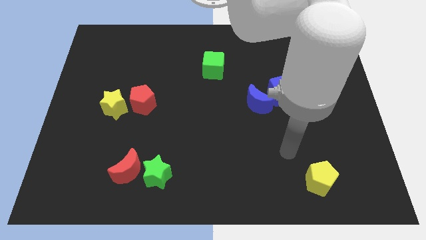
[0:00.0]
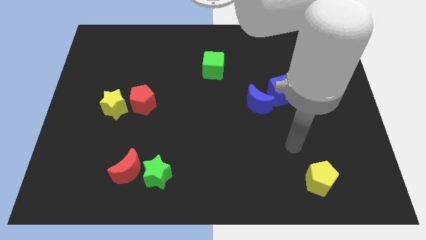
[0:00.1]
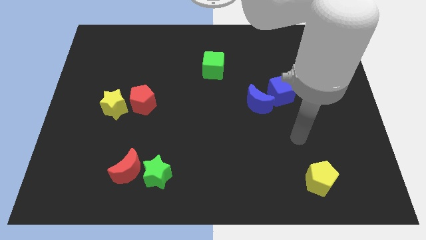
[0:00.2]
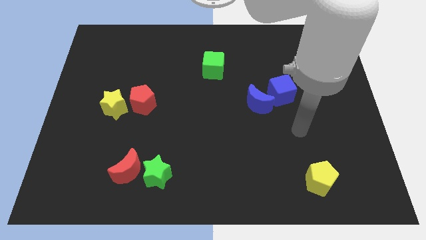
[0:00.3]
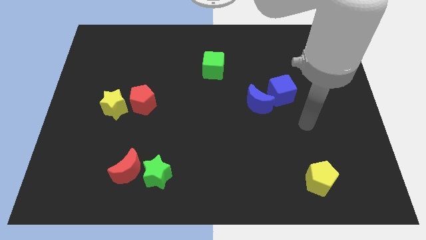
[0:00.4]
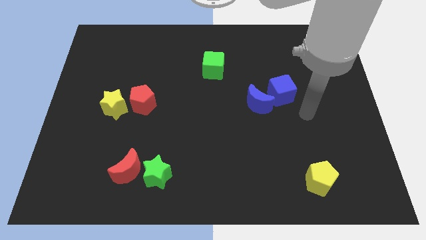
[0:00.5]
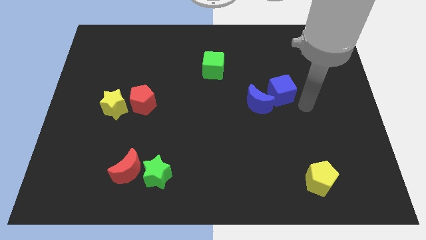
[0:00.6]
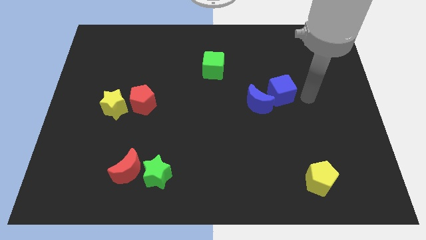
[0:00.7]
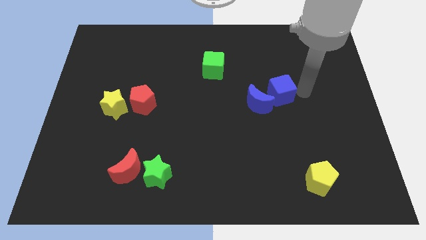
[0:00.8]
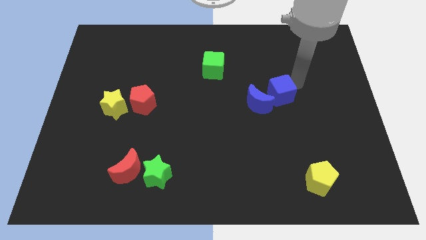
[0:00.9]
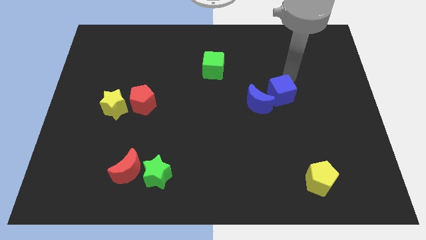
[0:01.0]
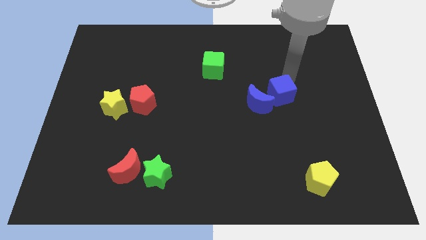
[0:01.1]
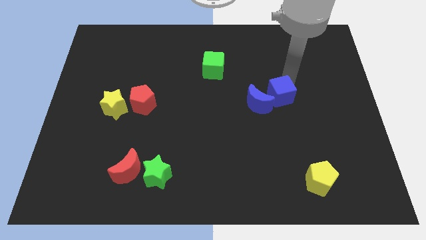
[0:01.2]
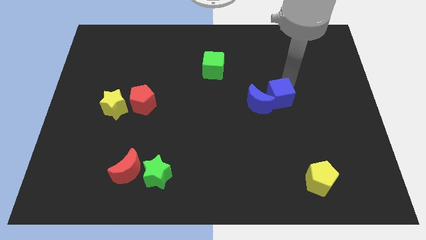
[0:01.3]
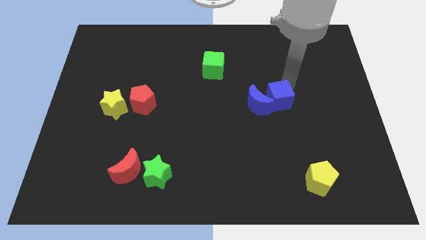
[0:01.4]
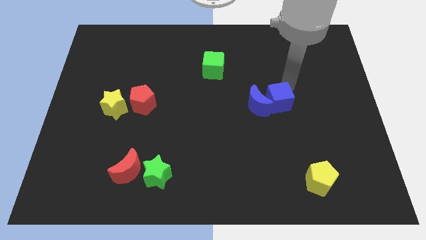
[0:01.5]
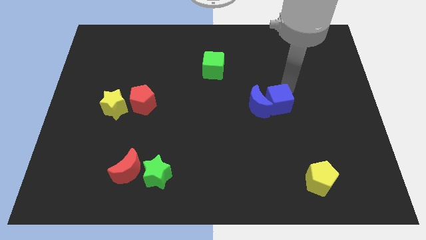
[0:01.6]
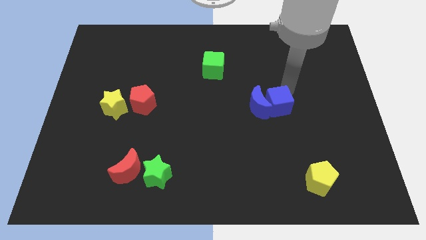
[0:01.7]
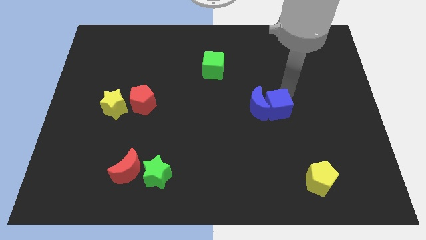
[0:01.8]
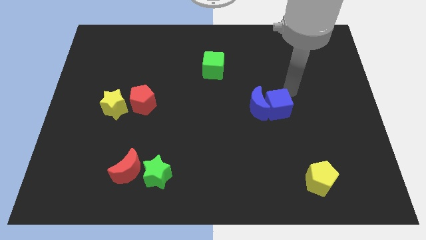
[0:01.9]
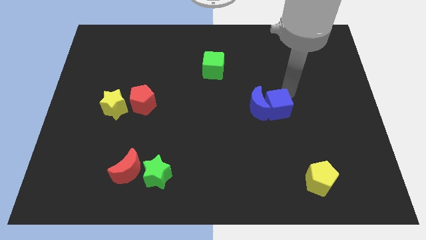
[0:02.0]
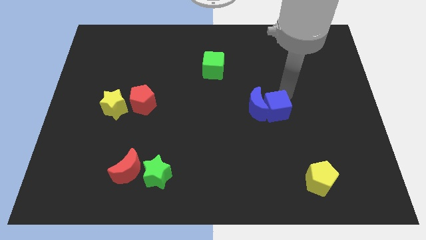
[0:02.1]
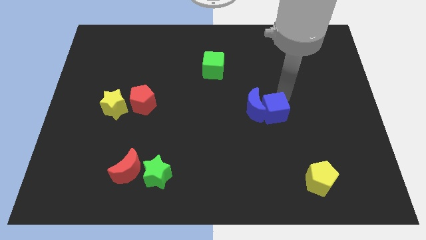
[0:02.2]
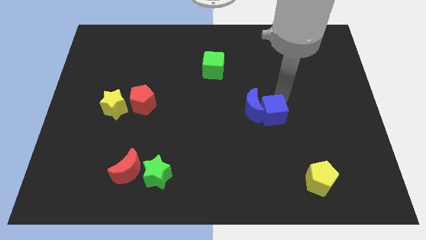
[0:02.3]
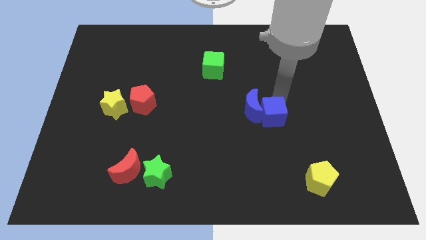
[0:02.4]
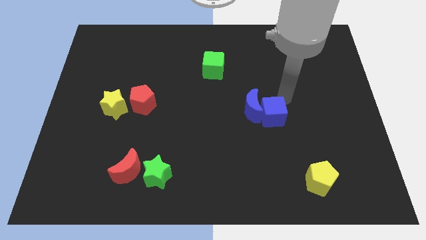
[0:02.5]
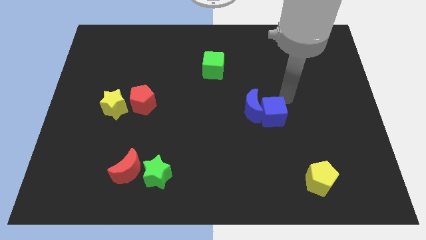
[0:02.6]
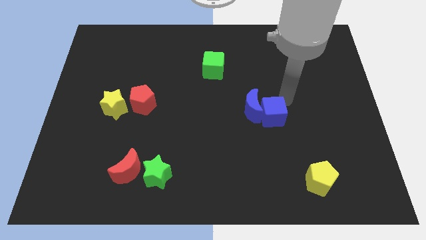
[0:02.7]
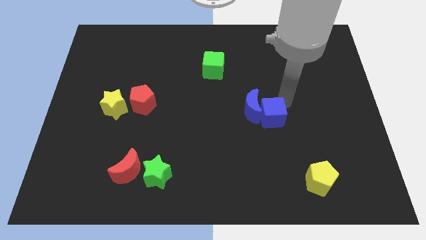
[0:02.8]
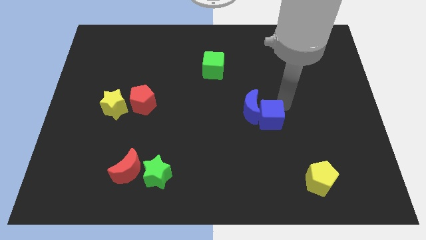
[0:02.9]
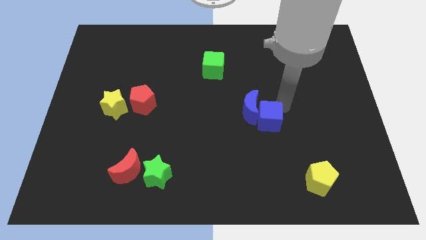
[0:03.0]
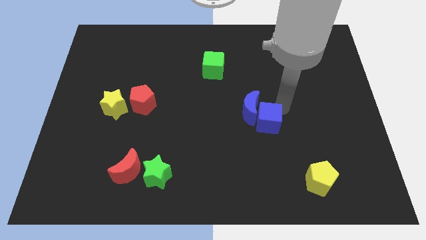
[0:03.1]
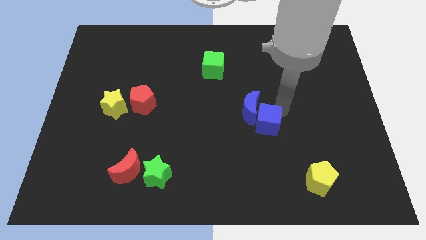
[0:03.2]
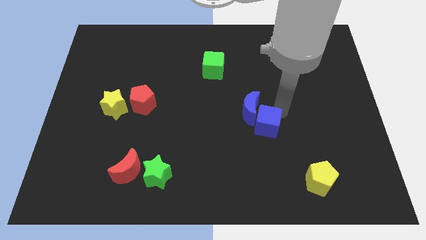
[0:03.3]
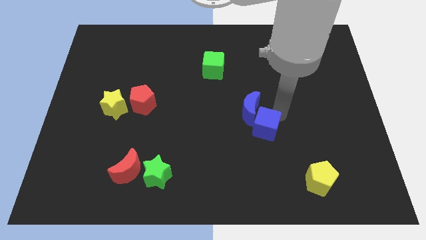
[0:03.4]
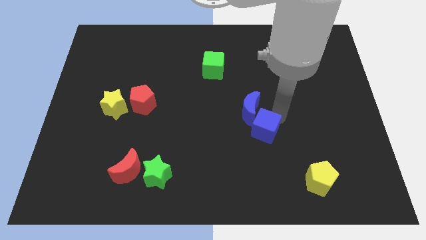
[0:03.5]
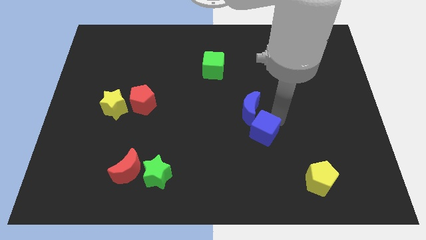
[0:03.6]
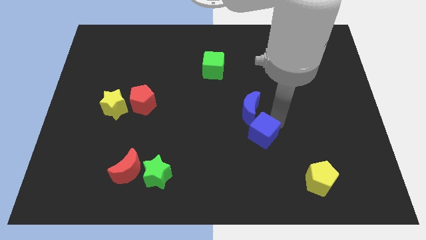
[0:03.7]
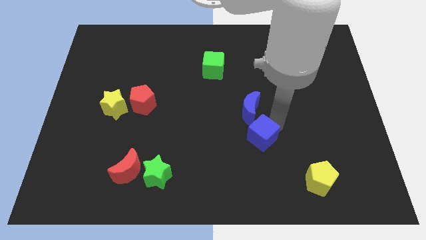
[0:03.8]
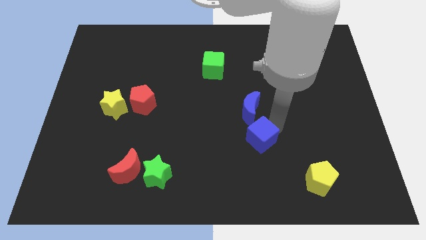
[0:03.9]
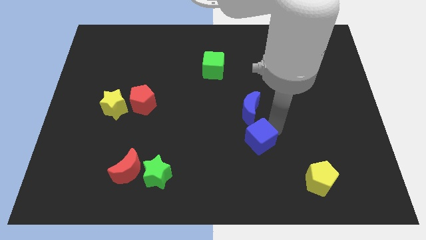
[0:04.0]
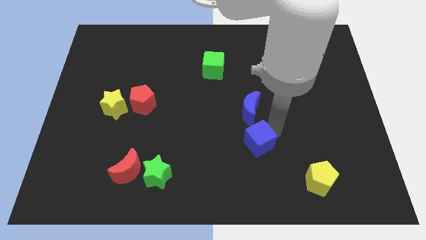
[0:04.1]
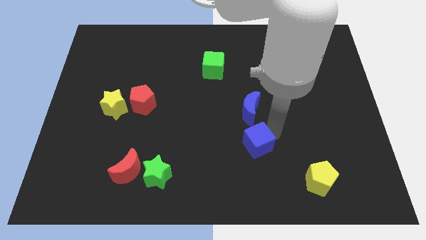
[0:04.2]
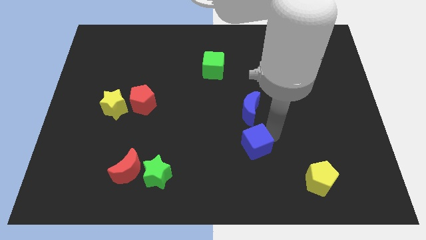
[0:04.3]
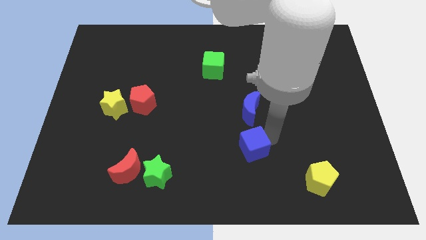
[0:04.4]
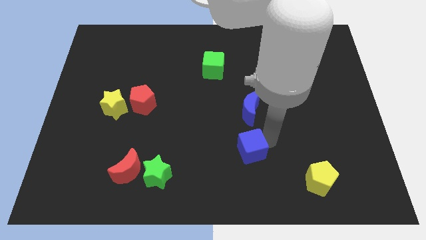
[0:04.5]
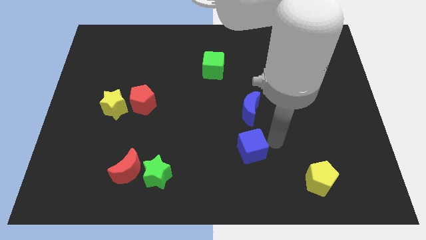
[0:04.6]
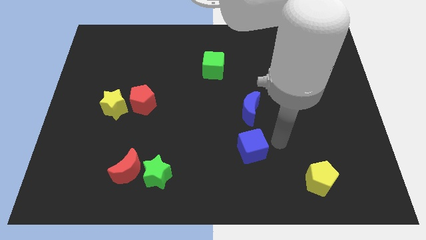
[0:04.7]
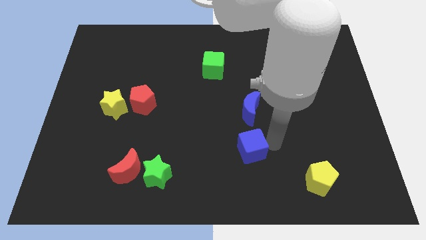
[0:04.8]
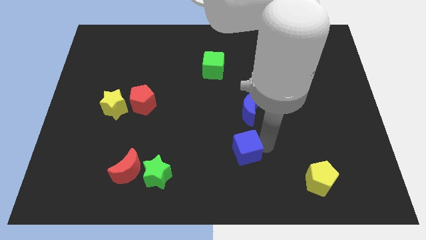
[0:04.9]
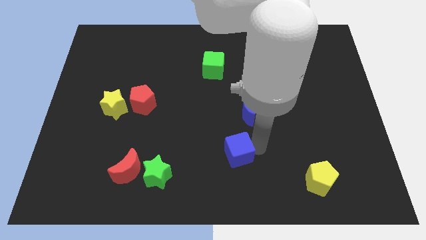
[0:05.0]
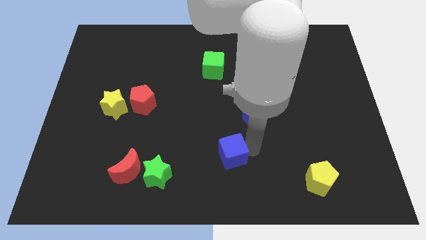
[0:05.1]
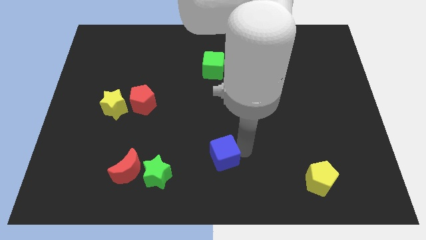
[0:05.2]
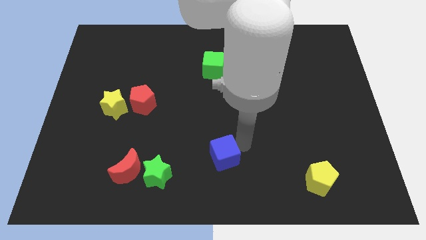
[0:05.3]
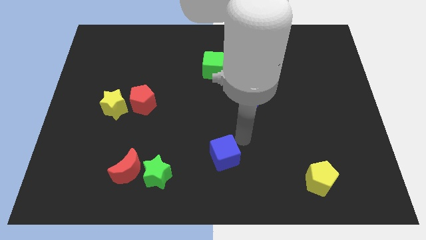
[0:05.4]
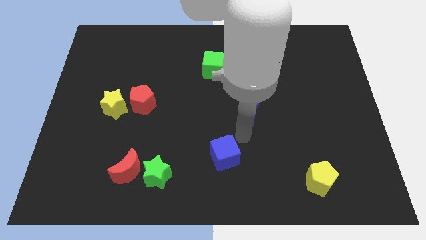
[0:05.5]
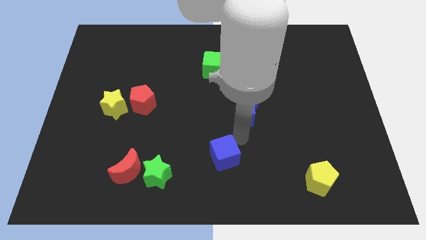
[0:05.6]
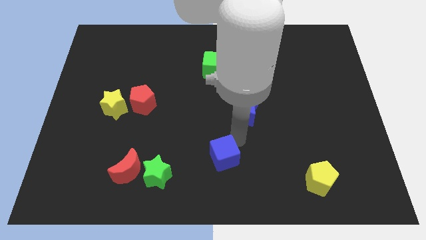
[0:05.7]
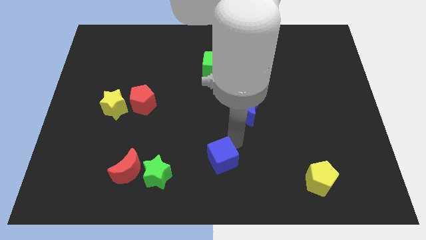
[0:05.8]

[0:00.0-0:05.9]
move the blue cube just right of the green star

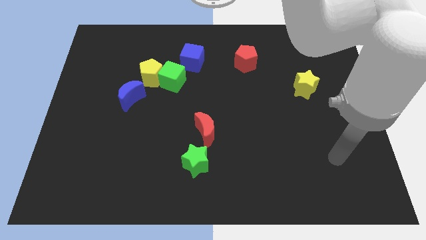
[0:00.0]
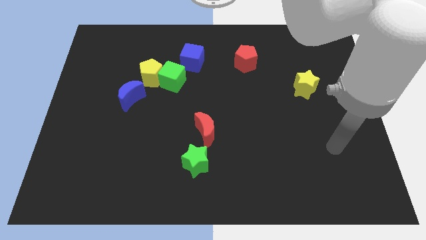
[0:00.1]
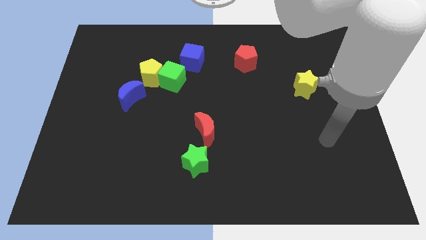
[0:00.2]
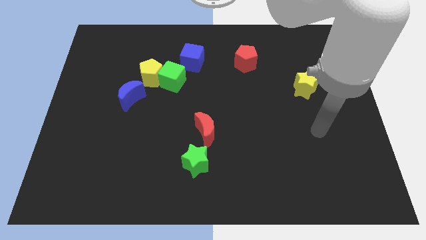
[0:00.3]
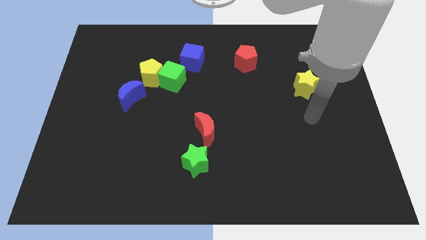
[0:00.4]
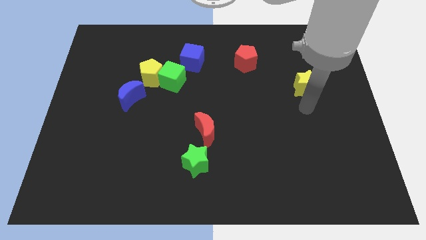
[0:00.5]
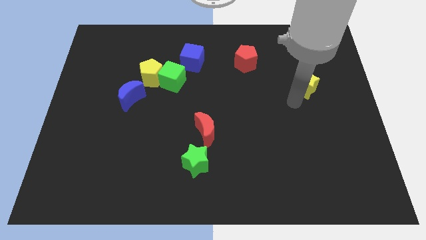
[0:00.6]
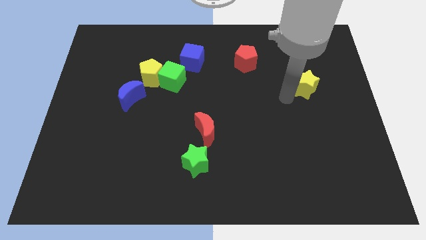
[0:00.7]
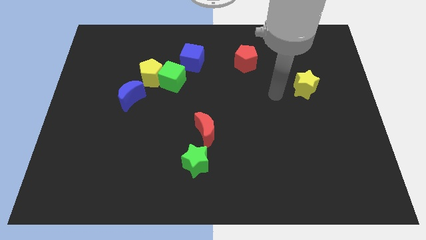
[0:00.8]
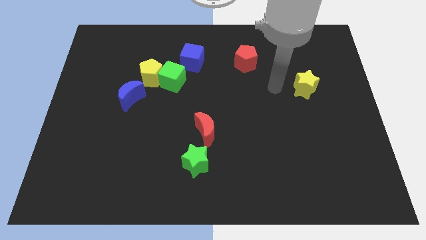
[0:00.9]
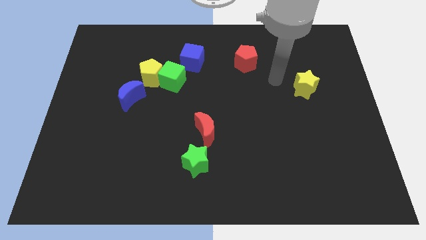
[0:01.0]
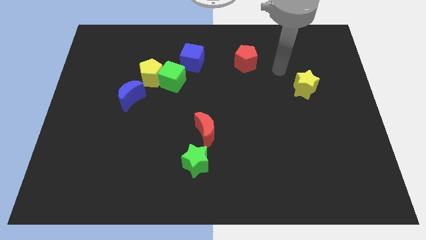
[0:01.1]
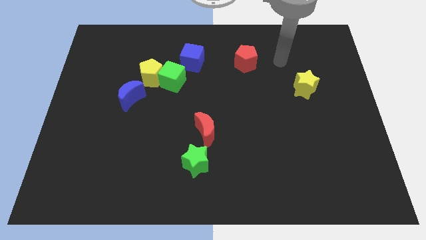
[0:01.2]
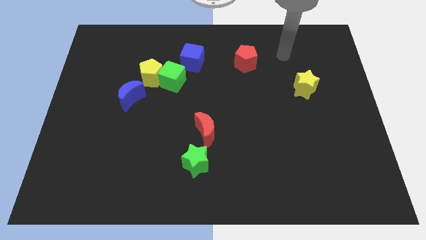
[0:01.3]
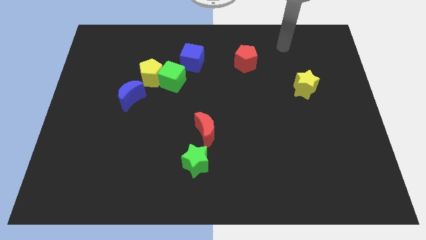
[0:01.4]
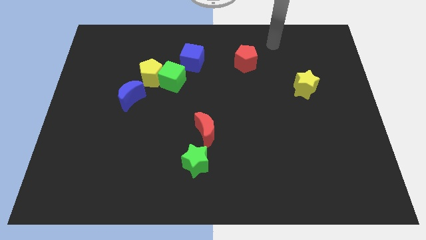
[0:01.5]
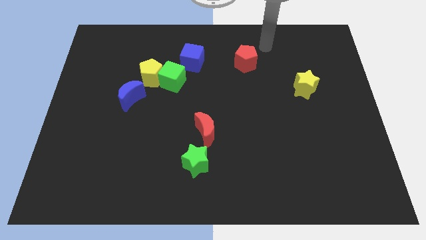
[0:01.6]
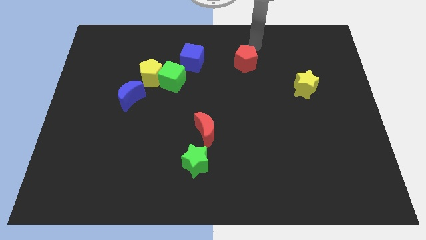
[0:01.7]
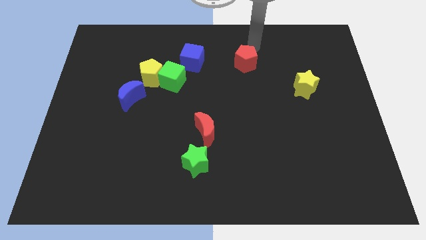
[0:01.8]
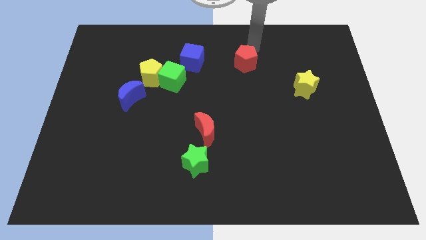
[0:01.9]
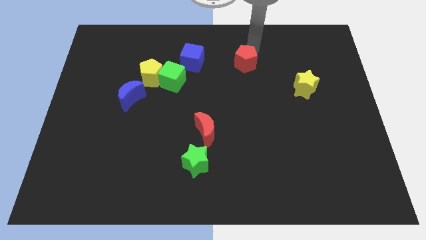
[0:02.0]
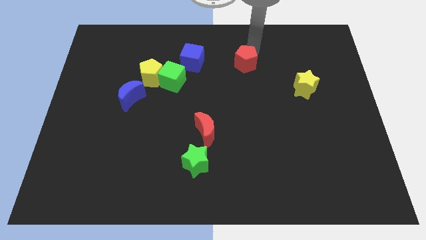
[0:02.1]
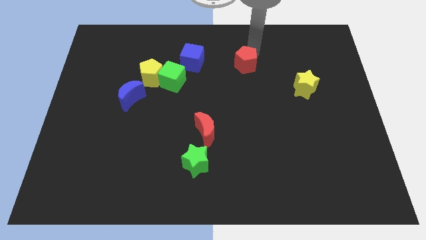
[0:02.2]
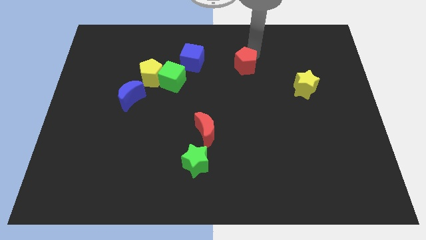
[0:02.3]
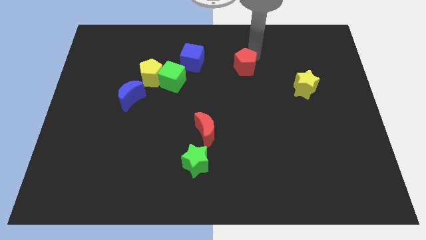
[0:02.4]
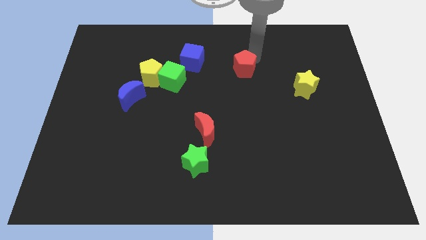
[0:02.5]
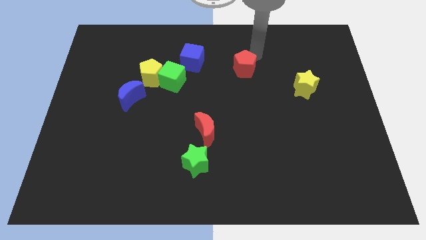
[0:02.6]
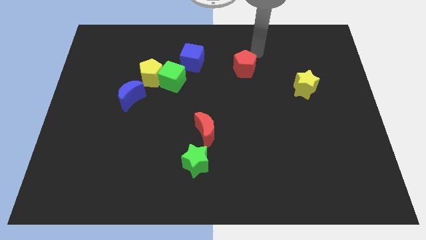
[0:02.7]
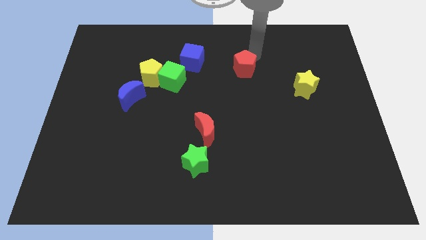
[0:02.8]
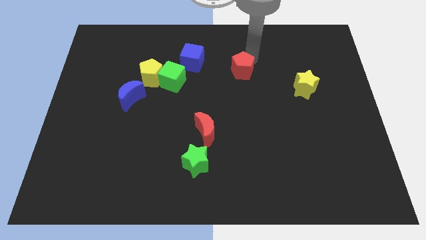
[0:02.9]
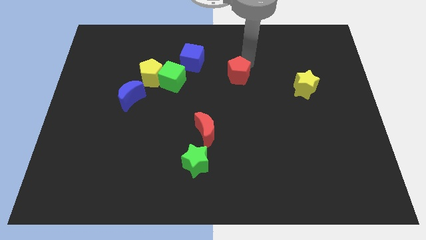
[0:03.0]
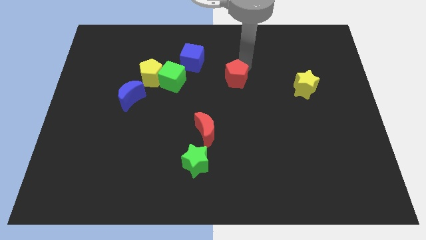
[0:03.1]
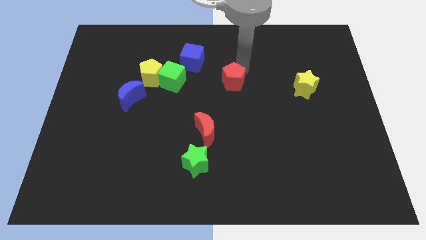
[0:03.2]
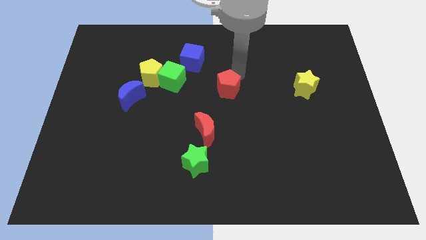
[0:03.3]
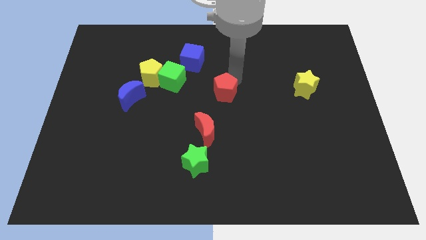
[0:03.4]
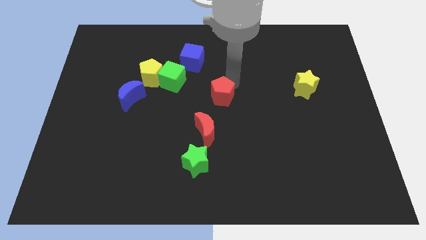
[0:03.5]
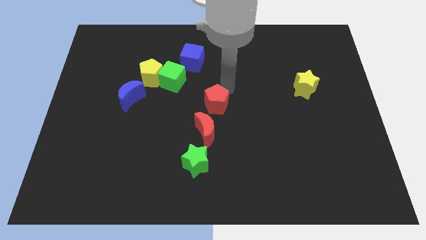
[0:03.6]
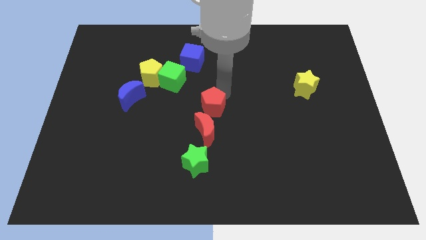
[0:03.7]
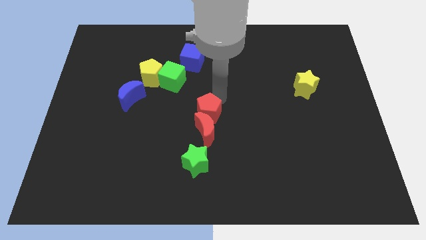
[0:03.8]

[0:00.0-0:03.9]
push the red pentagon above the green star
